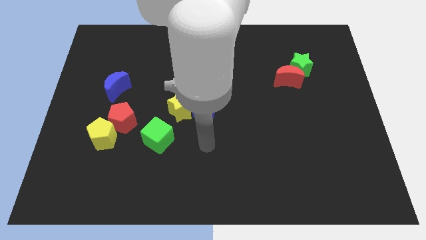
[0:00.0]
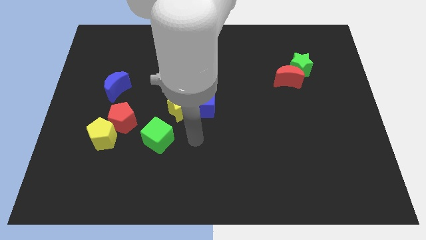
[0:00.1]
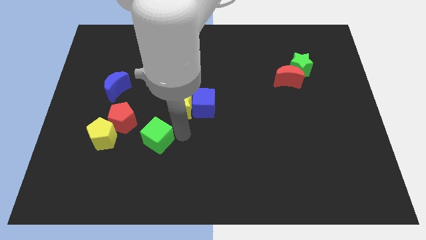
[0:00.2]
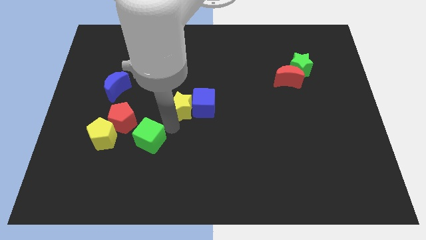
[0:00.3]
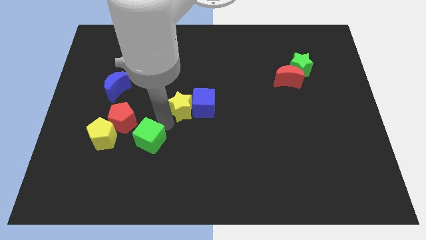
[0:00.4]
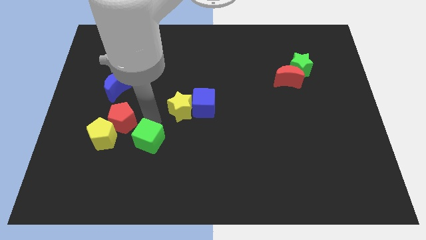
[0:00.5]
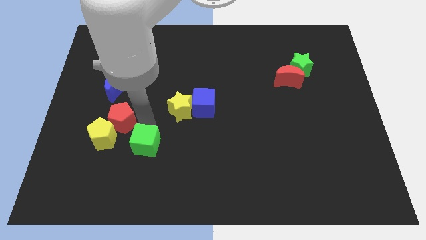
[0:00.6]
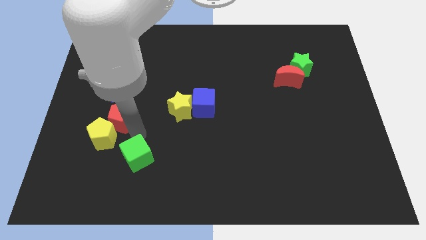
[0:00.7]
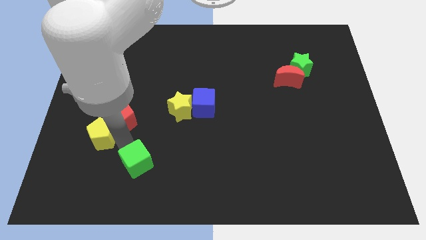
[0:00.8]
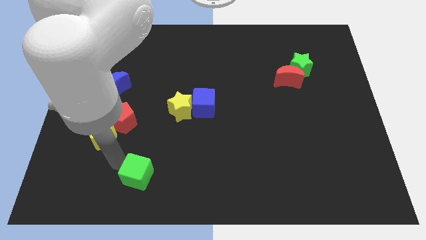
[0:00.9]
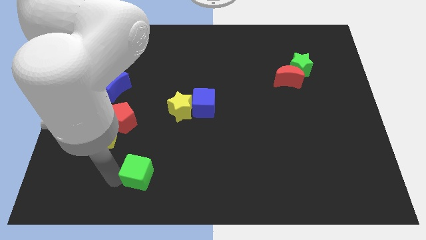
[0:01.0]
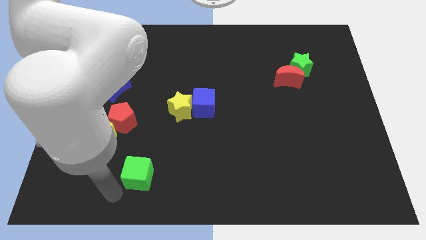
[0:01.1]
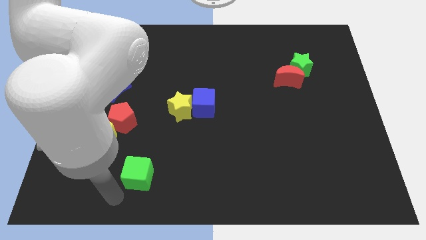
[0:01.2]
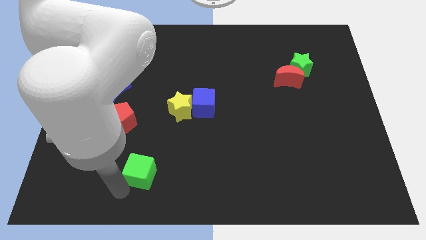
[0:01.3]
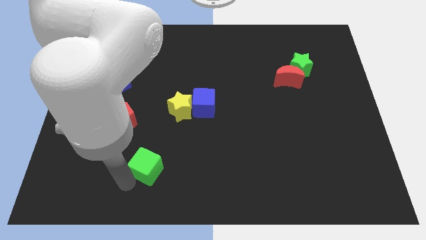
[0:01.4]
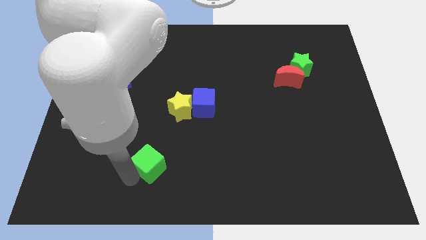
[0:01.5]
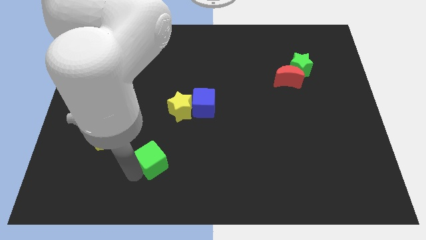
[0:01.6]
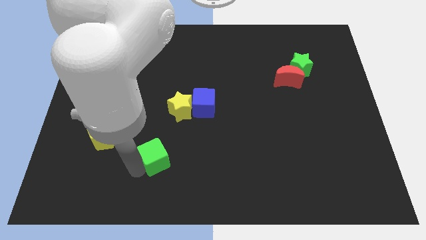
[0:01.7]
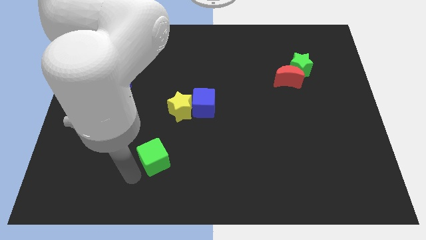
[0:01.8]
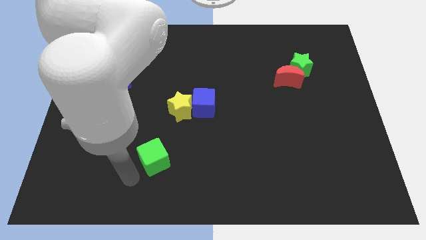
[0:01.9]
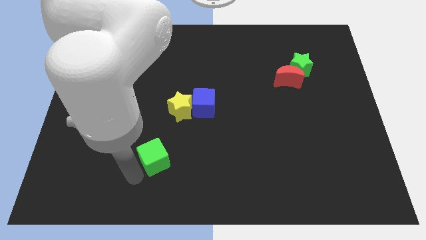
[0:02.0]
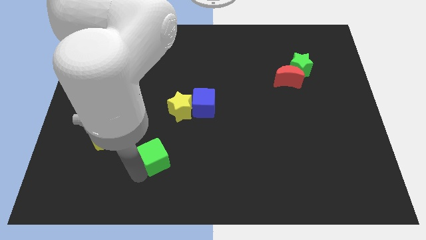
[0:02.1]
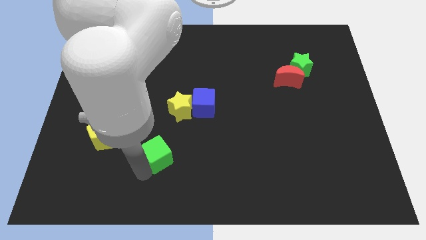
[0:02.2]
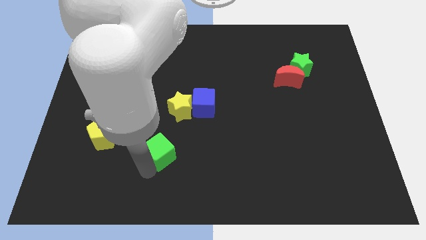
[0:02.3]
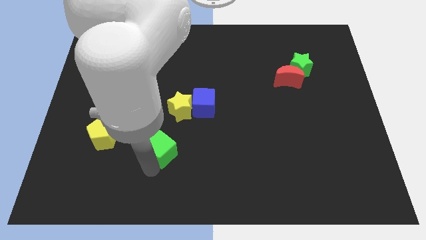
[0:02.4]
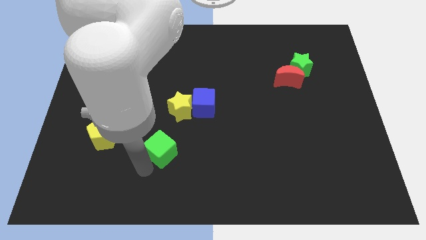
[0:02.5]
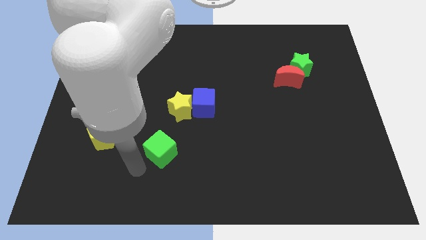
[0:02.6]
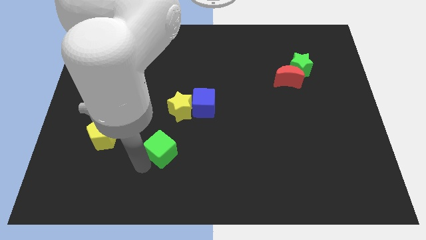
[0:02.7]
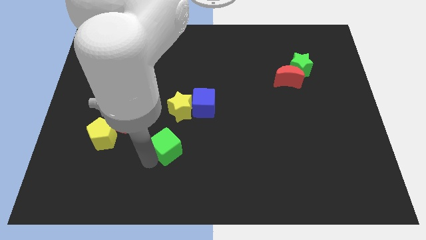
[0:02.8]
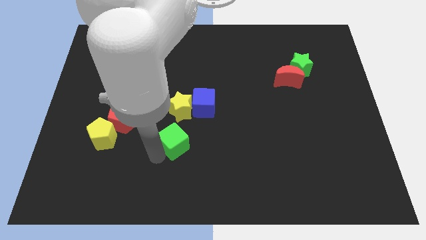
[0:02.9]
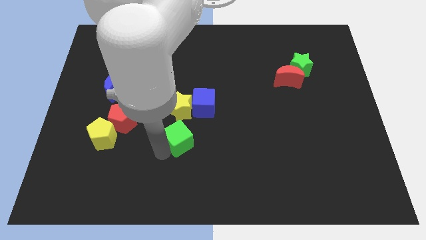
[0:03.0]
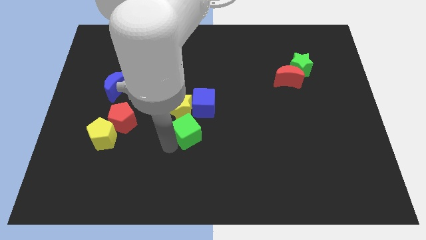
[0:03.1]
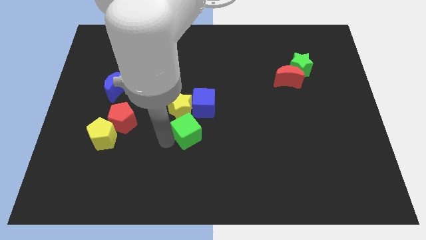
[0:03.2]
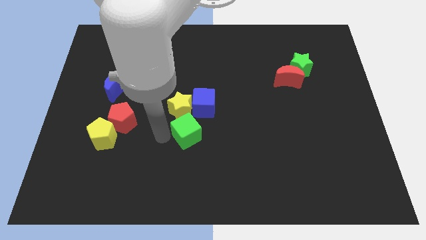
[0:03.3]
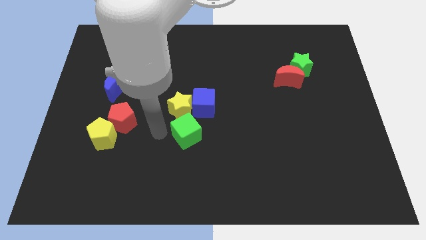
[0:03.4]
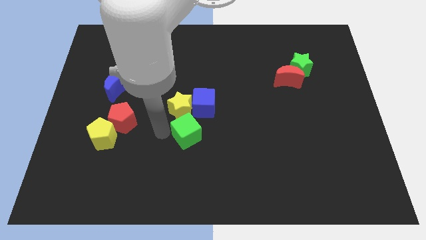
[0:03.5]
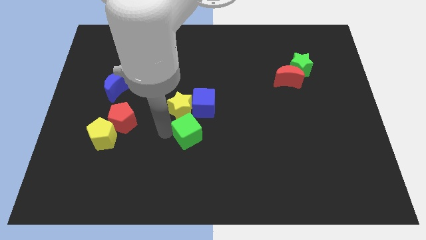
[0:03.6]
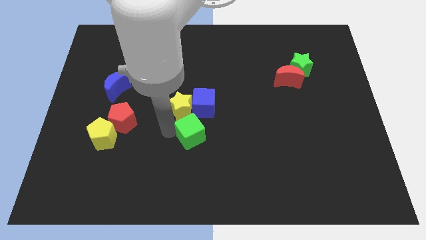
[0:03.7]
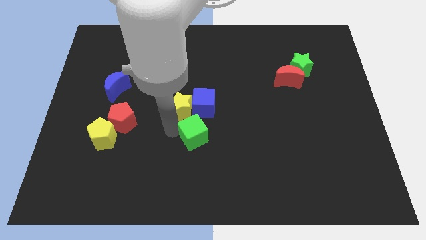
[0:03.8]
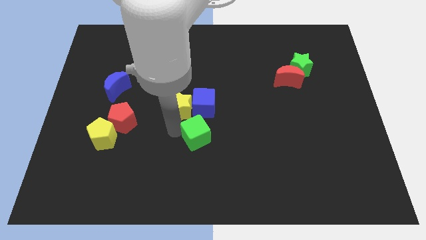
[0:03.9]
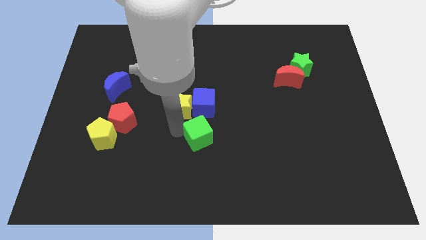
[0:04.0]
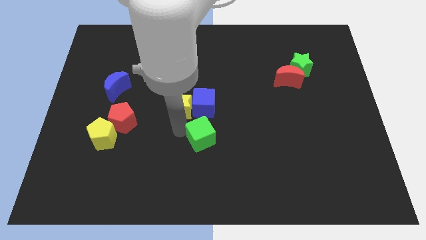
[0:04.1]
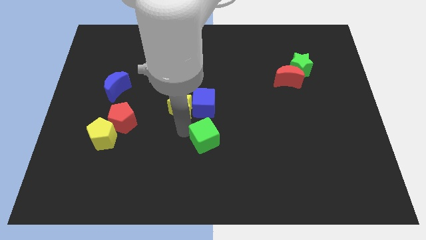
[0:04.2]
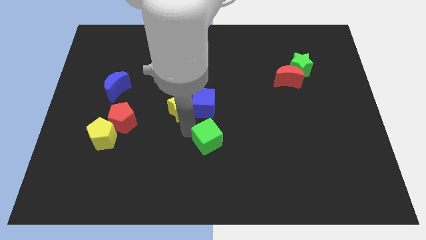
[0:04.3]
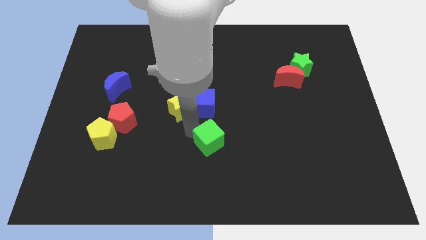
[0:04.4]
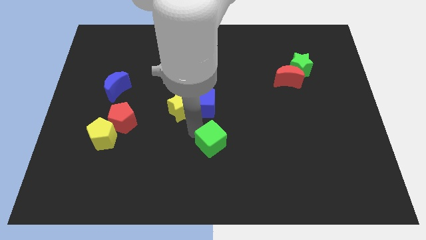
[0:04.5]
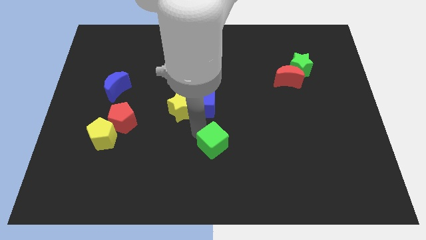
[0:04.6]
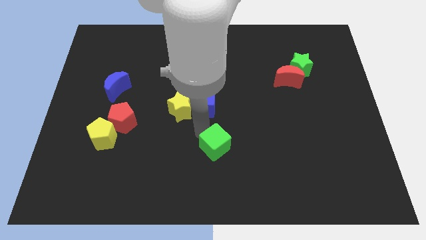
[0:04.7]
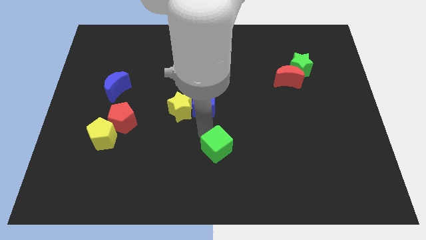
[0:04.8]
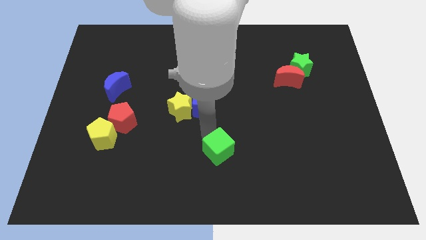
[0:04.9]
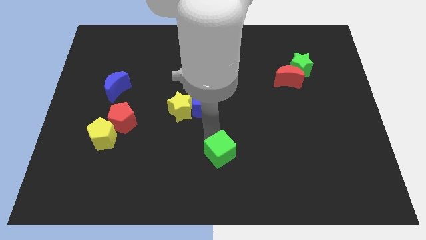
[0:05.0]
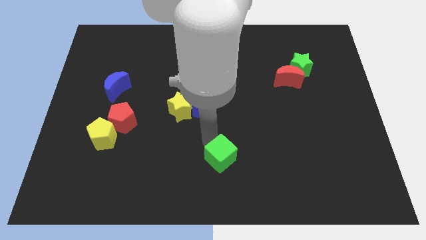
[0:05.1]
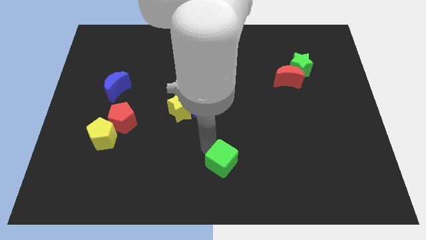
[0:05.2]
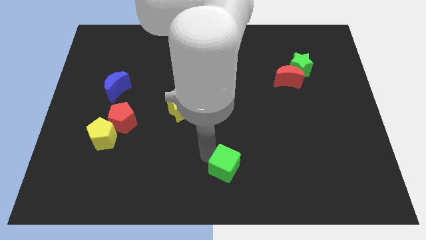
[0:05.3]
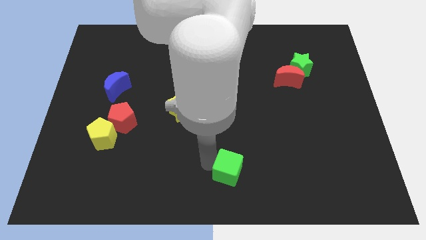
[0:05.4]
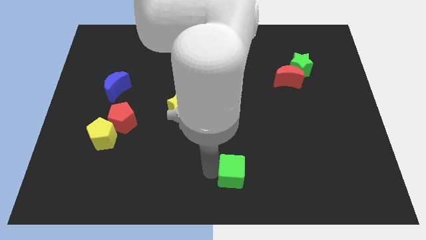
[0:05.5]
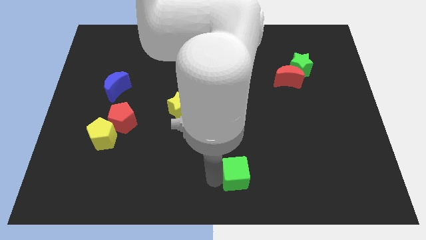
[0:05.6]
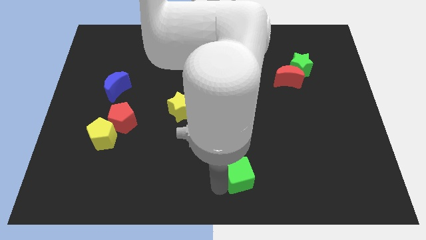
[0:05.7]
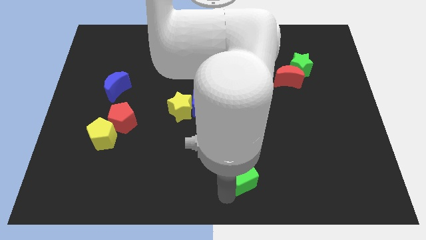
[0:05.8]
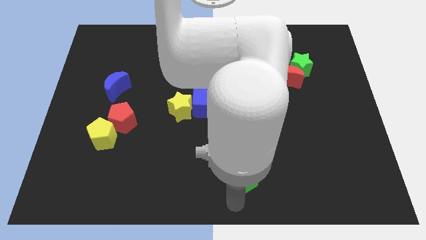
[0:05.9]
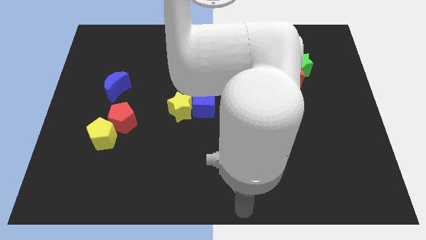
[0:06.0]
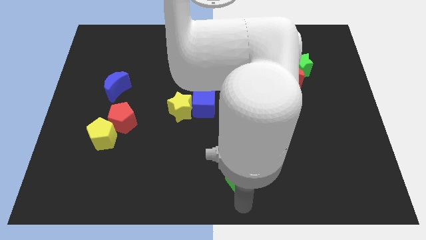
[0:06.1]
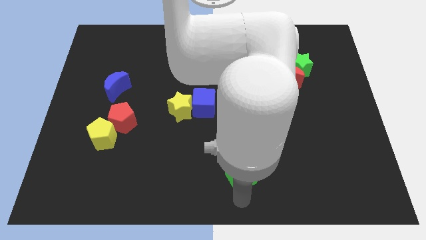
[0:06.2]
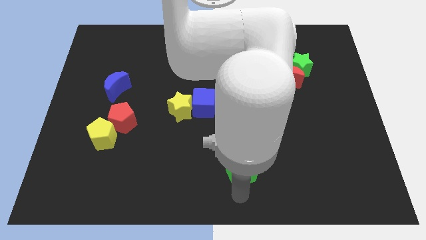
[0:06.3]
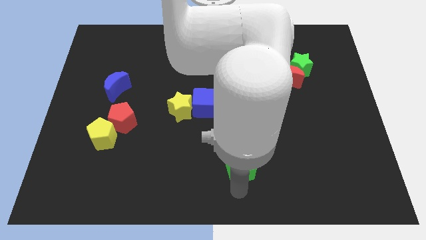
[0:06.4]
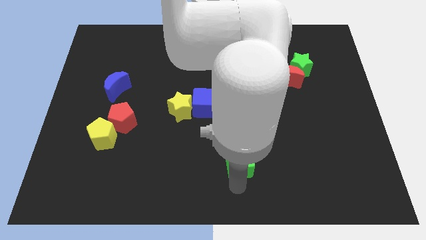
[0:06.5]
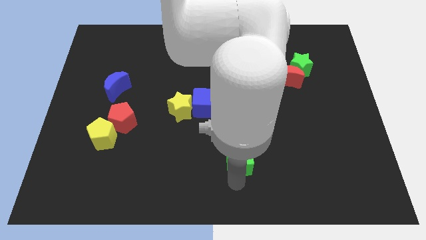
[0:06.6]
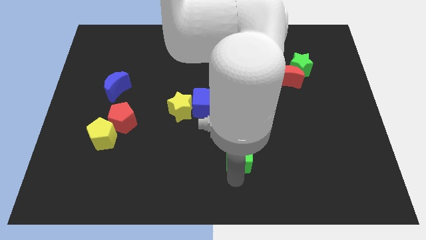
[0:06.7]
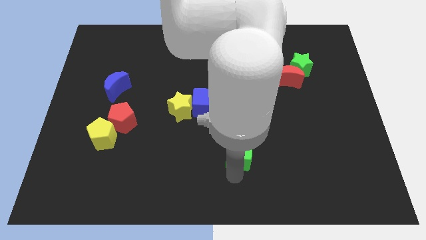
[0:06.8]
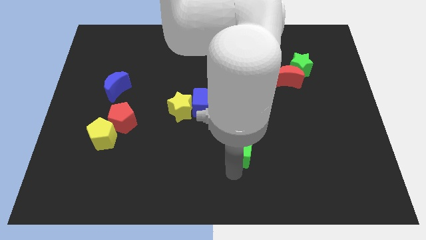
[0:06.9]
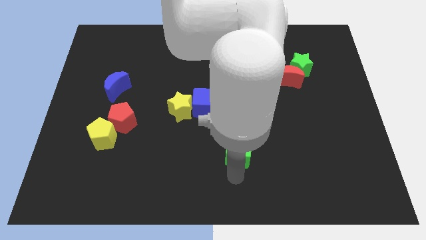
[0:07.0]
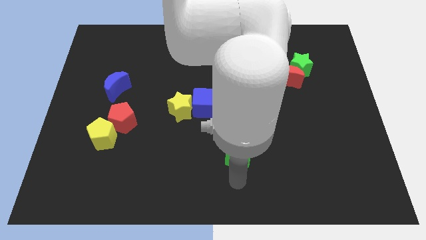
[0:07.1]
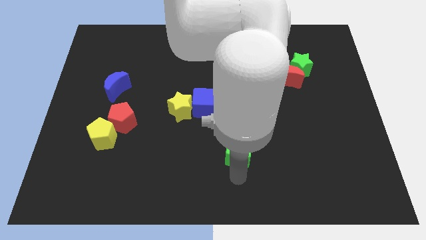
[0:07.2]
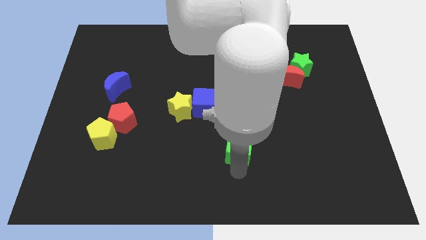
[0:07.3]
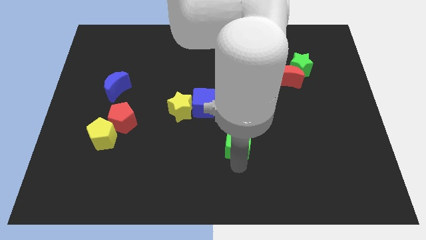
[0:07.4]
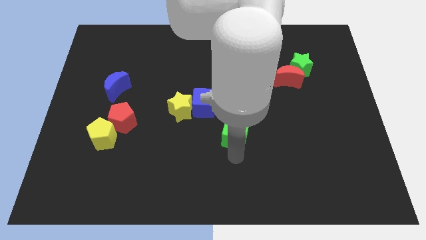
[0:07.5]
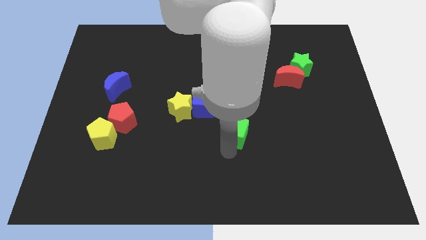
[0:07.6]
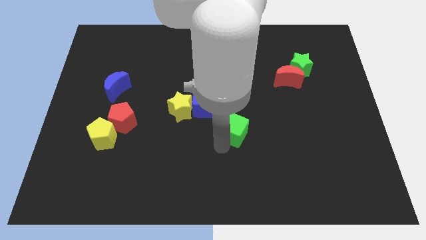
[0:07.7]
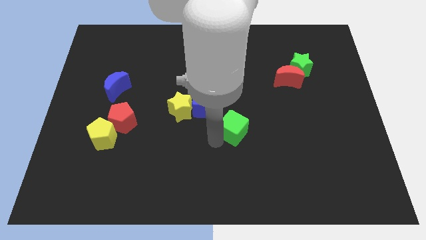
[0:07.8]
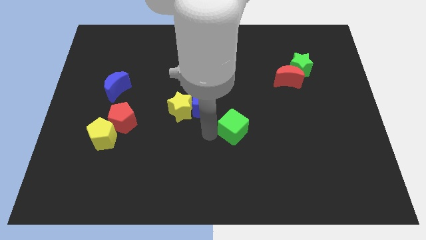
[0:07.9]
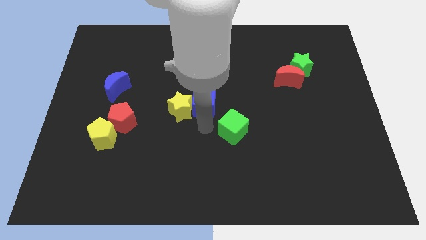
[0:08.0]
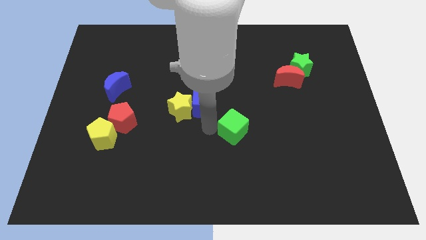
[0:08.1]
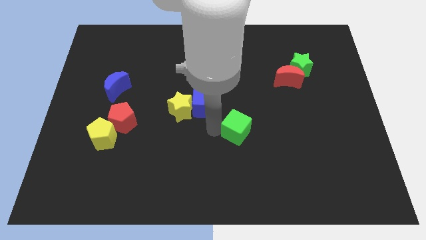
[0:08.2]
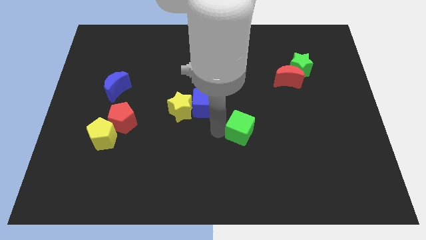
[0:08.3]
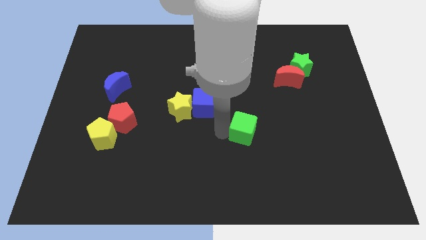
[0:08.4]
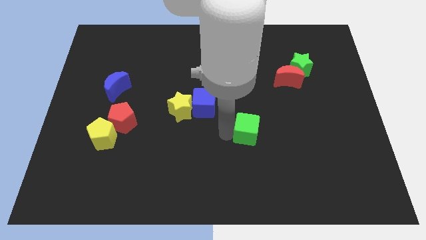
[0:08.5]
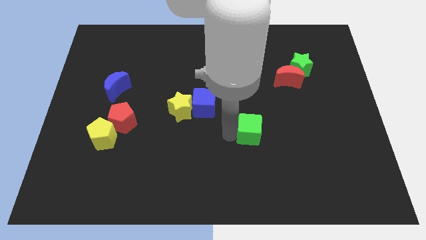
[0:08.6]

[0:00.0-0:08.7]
move the green cube to the right
